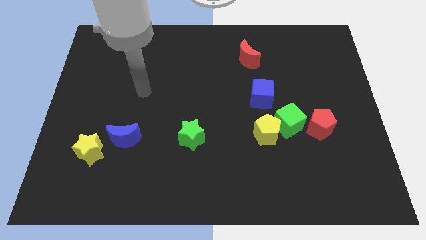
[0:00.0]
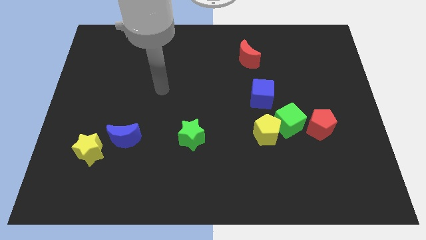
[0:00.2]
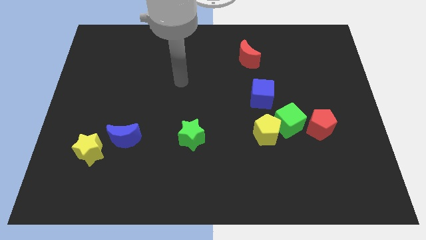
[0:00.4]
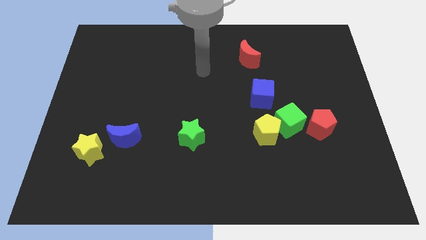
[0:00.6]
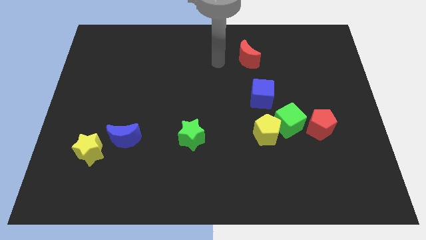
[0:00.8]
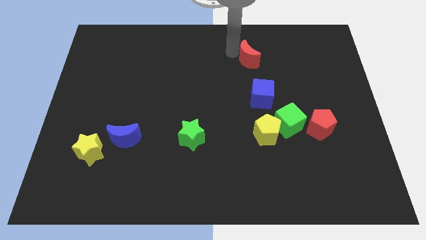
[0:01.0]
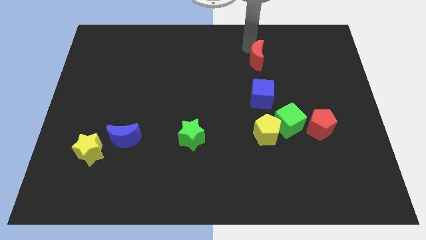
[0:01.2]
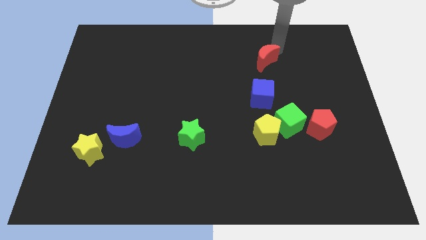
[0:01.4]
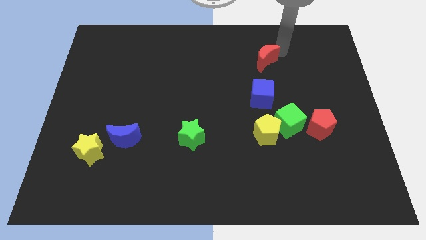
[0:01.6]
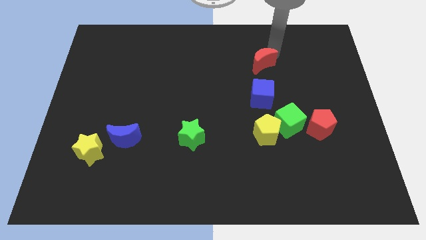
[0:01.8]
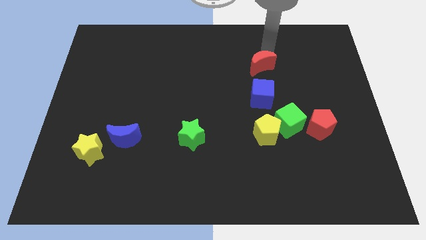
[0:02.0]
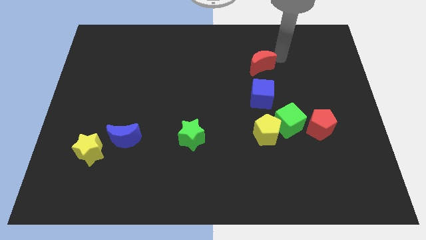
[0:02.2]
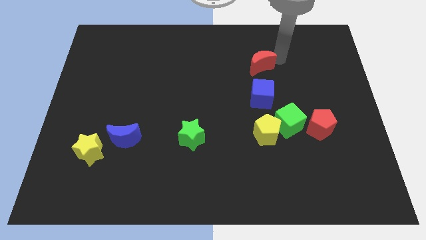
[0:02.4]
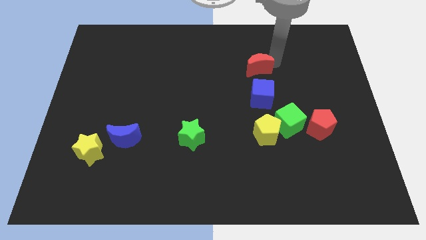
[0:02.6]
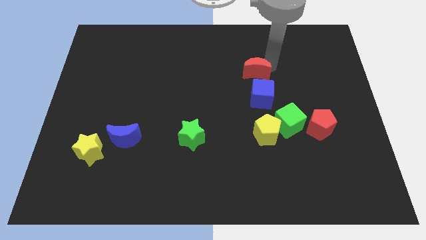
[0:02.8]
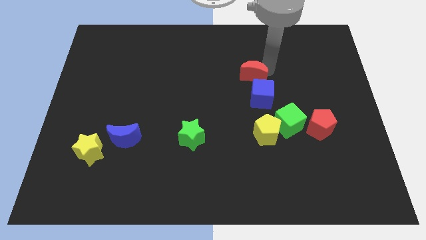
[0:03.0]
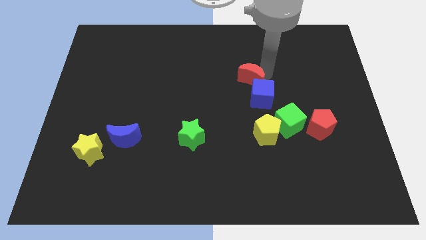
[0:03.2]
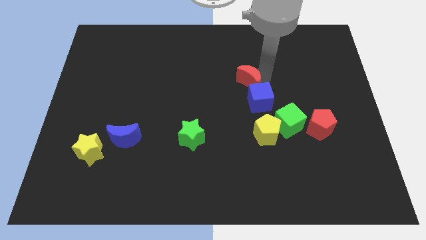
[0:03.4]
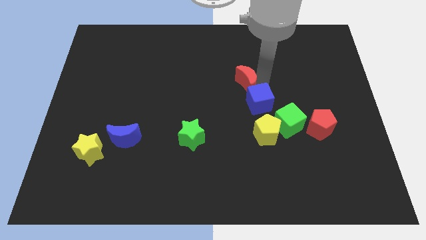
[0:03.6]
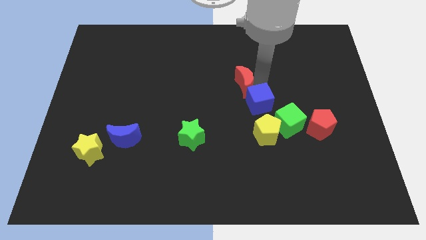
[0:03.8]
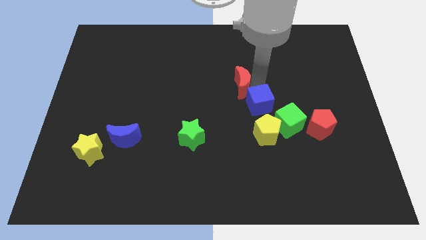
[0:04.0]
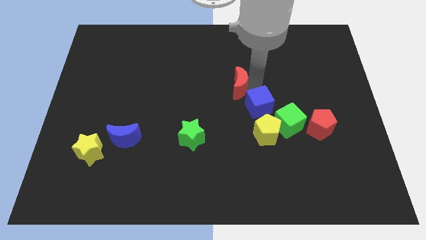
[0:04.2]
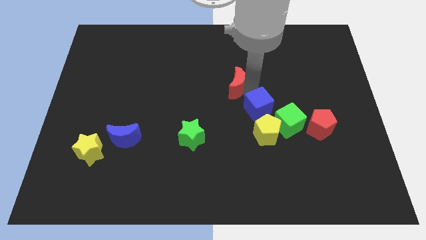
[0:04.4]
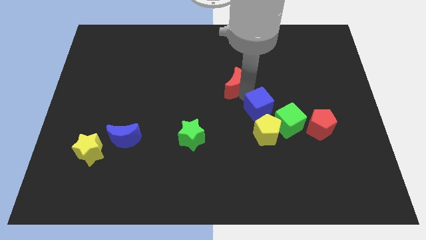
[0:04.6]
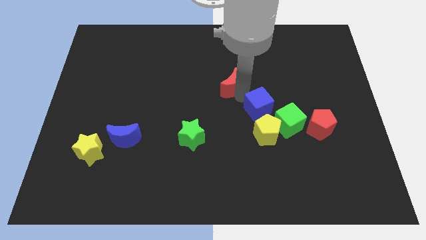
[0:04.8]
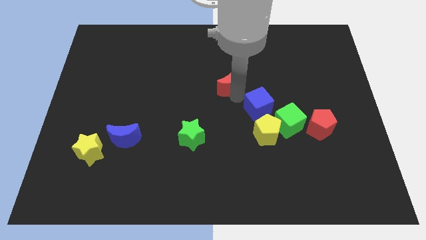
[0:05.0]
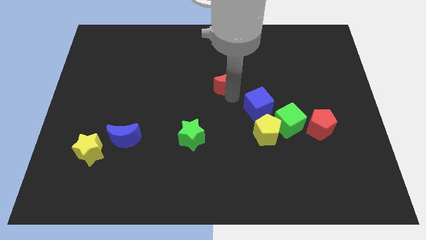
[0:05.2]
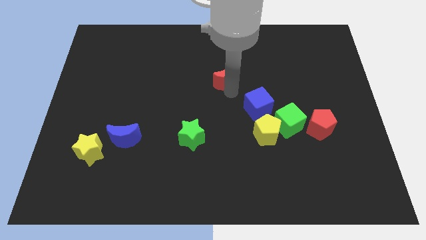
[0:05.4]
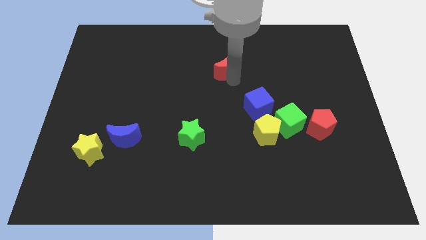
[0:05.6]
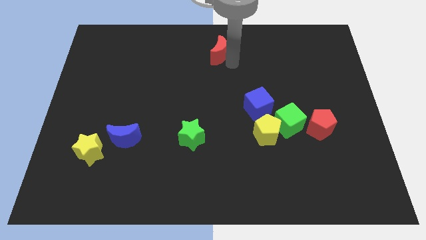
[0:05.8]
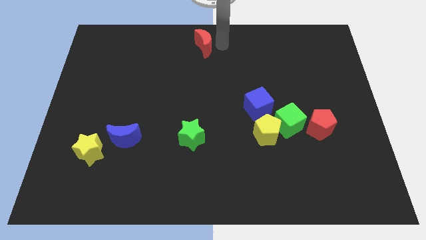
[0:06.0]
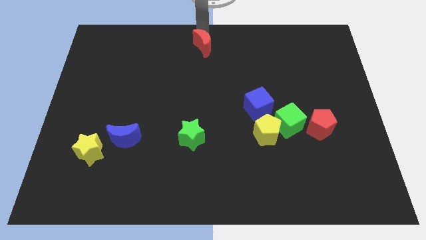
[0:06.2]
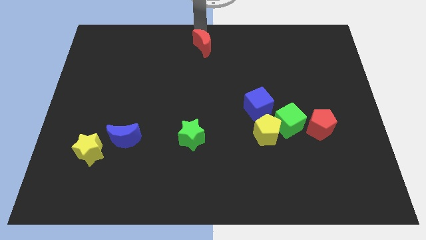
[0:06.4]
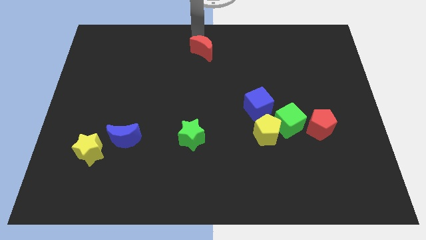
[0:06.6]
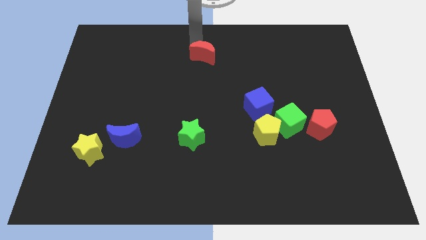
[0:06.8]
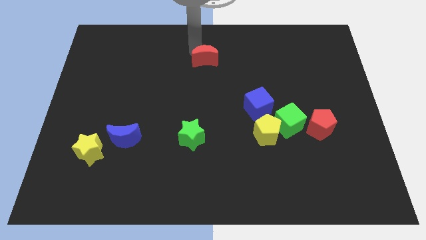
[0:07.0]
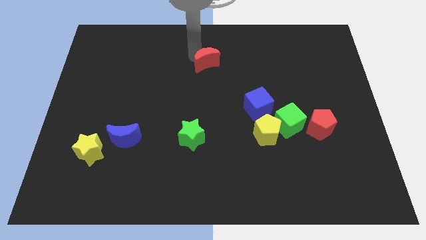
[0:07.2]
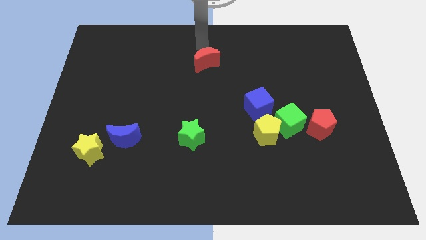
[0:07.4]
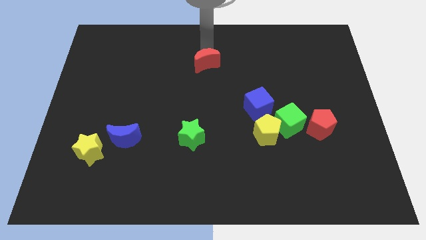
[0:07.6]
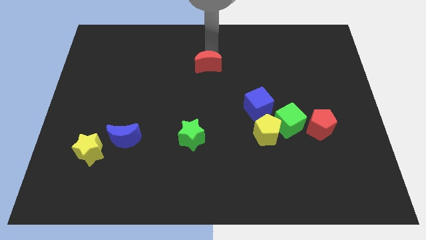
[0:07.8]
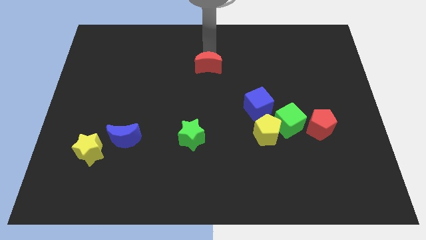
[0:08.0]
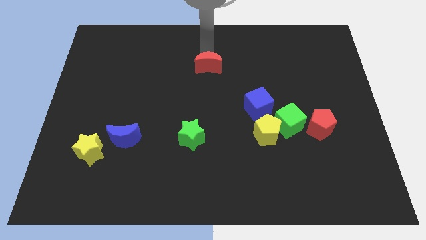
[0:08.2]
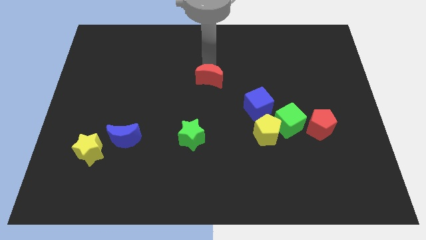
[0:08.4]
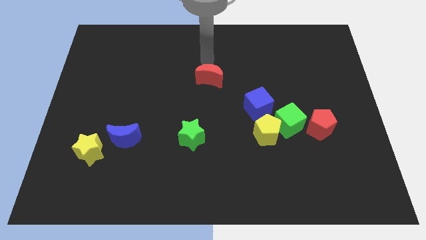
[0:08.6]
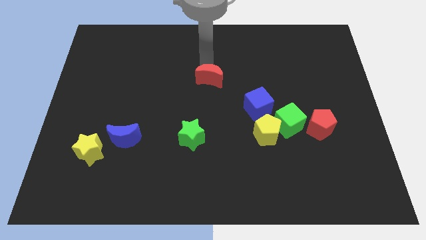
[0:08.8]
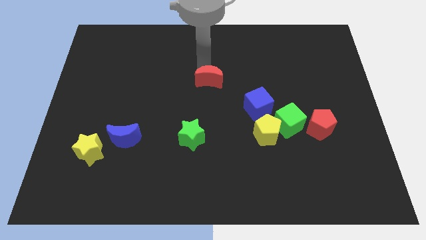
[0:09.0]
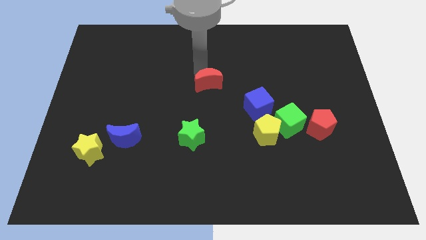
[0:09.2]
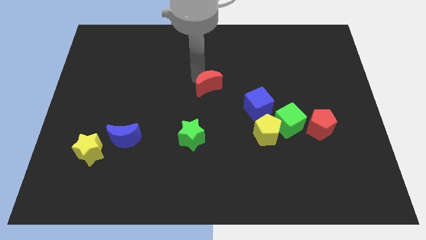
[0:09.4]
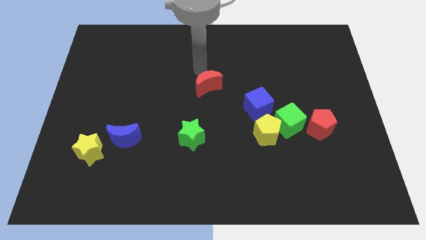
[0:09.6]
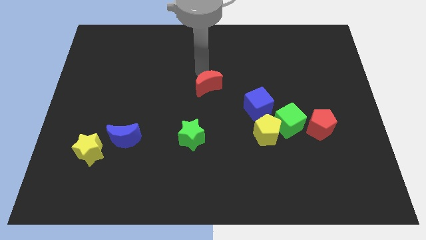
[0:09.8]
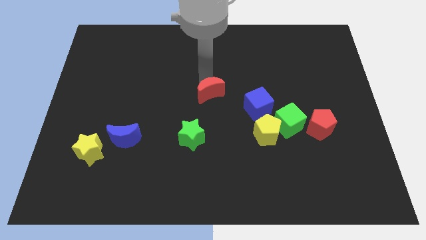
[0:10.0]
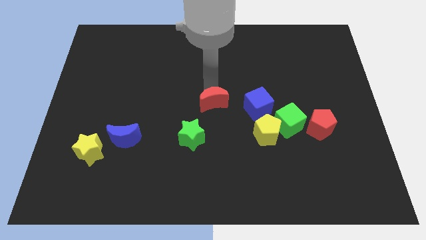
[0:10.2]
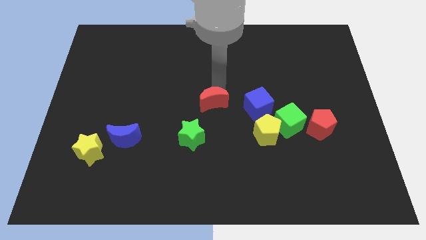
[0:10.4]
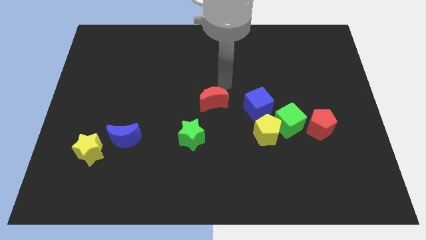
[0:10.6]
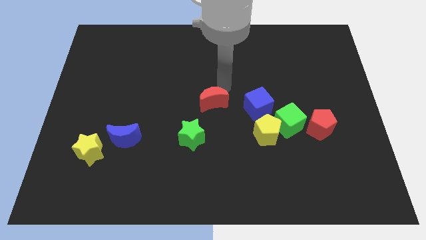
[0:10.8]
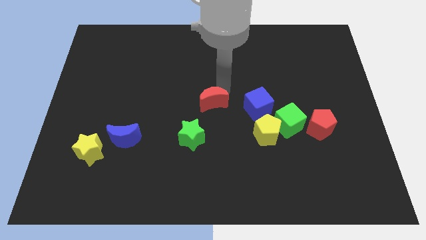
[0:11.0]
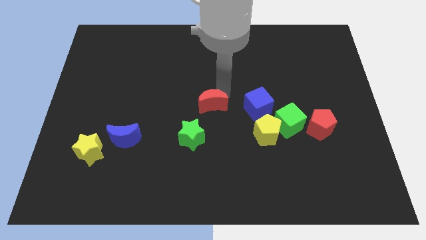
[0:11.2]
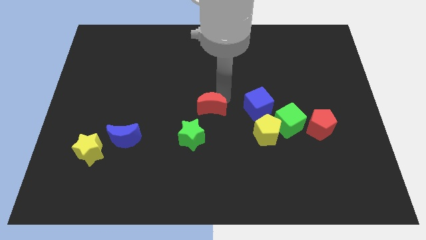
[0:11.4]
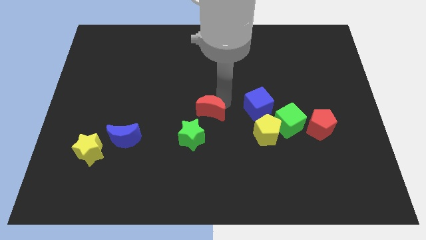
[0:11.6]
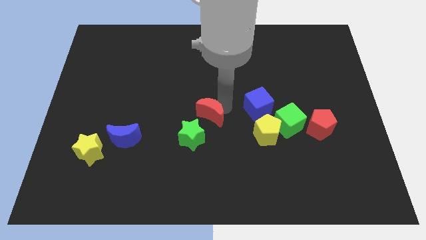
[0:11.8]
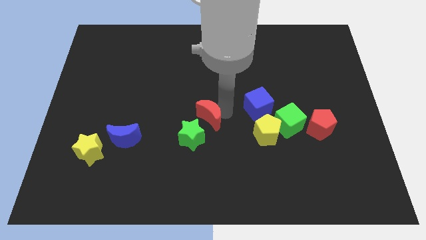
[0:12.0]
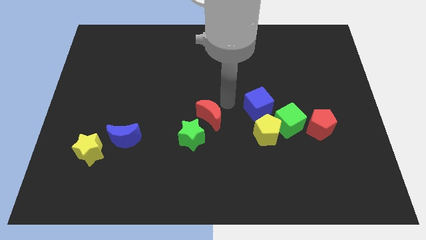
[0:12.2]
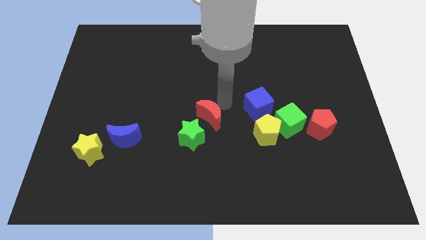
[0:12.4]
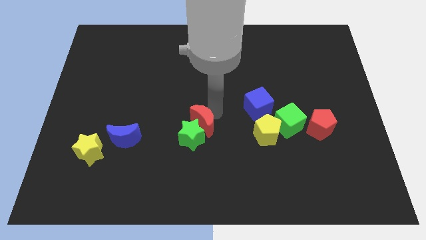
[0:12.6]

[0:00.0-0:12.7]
put the red moon next to the green star
